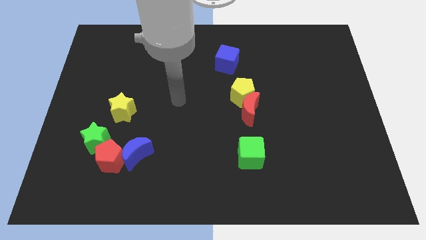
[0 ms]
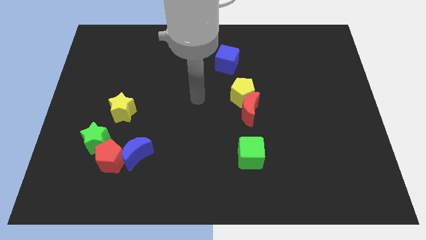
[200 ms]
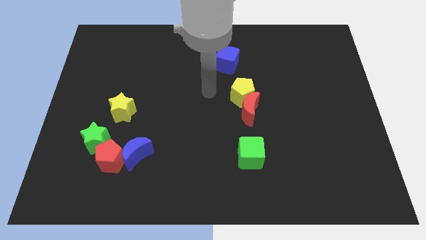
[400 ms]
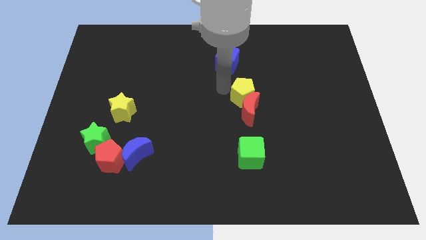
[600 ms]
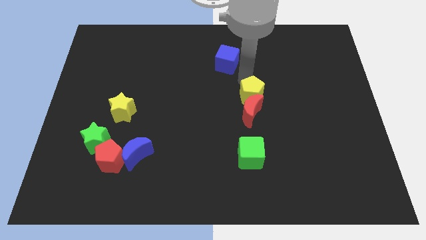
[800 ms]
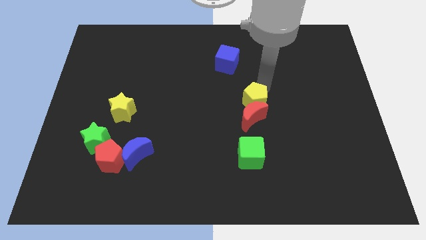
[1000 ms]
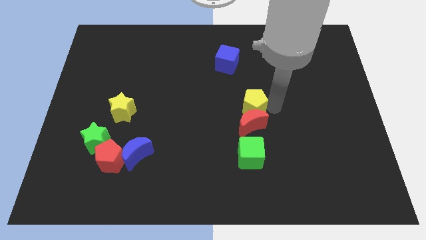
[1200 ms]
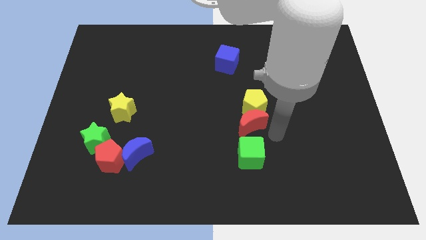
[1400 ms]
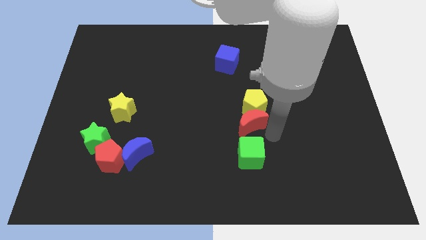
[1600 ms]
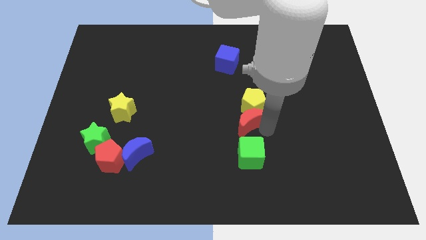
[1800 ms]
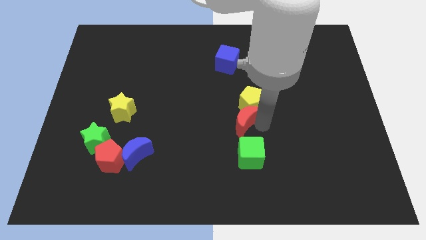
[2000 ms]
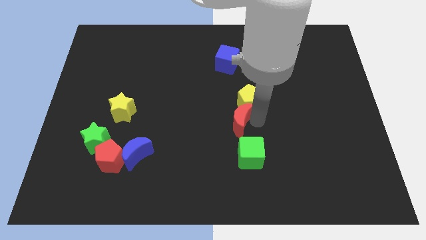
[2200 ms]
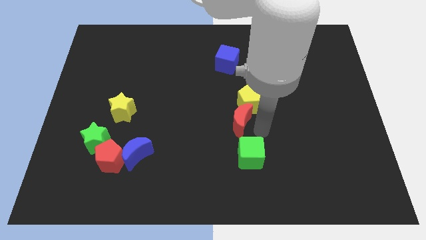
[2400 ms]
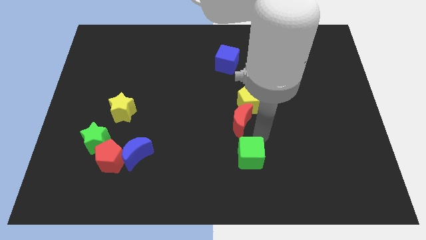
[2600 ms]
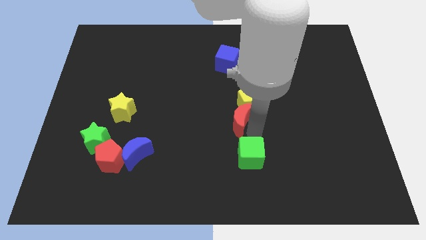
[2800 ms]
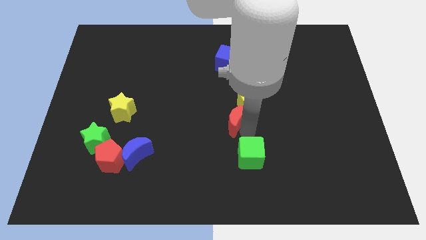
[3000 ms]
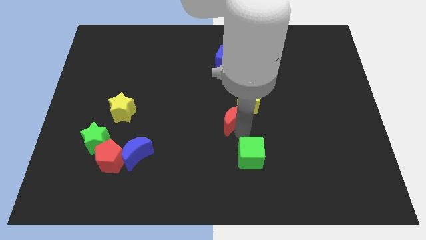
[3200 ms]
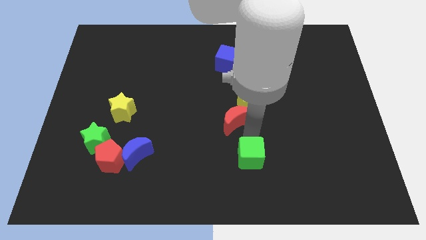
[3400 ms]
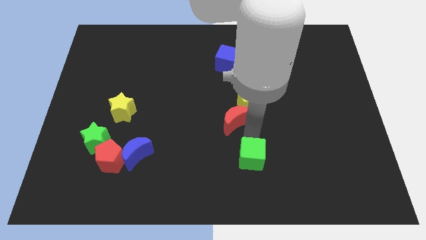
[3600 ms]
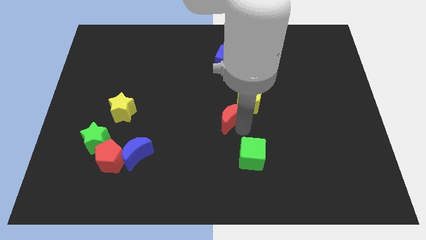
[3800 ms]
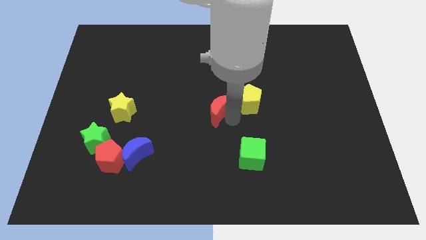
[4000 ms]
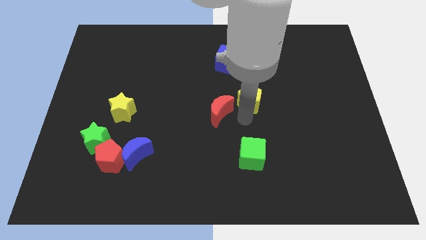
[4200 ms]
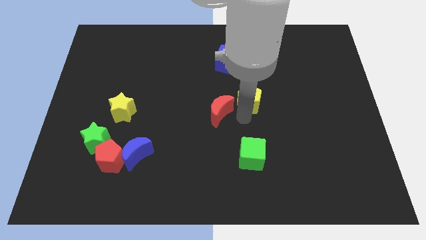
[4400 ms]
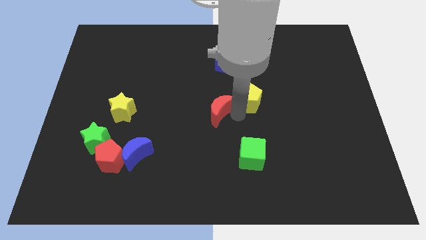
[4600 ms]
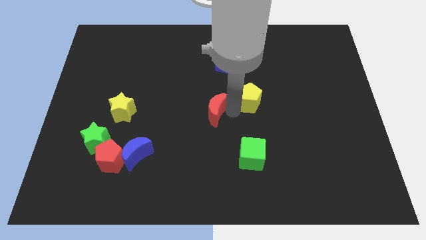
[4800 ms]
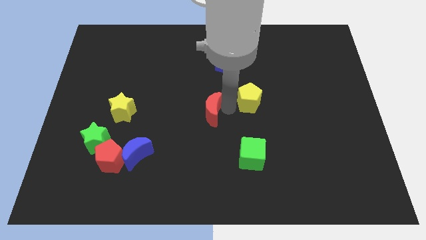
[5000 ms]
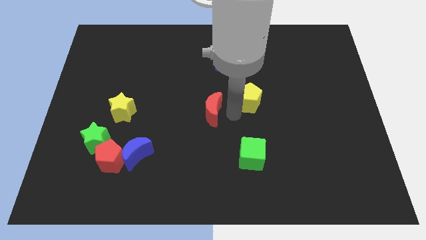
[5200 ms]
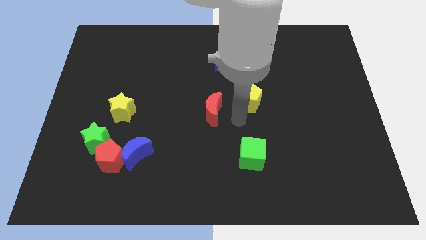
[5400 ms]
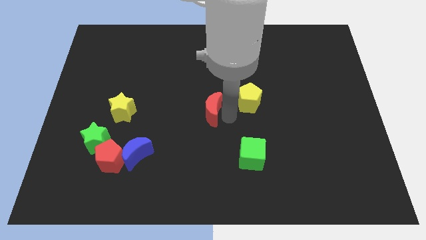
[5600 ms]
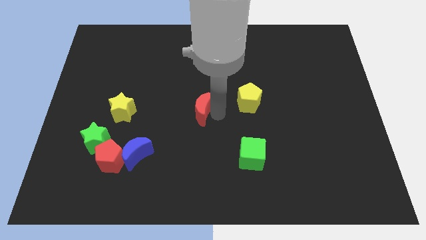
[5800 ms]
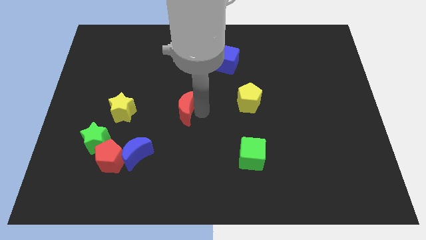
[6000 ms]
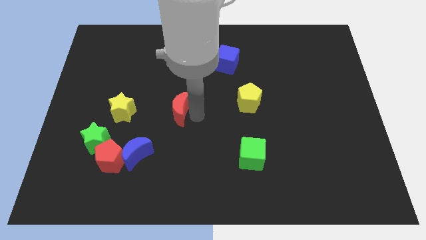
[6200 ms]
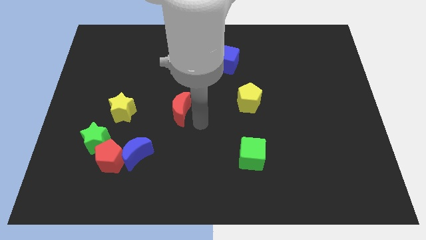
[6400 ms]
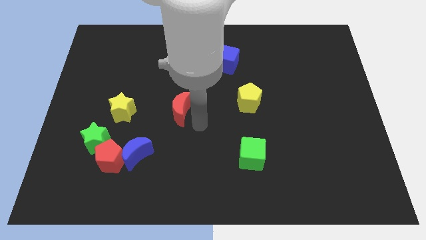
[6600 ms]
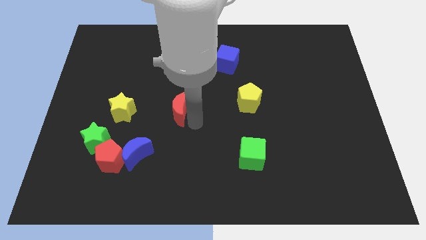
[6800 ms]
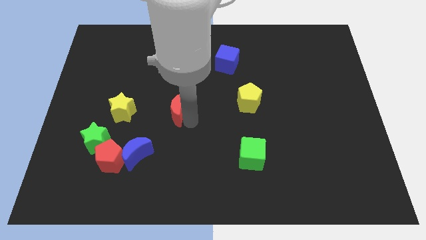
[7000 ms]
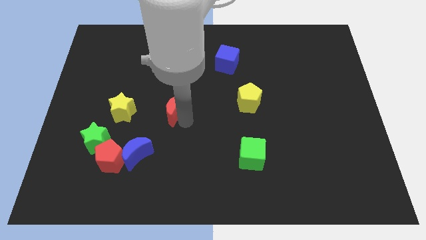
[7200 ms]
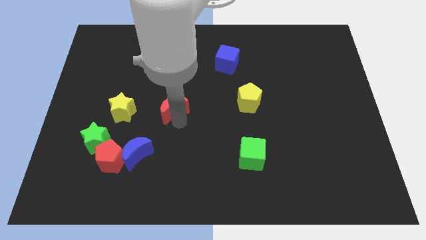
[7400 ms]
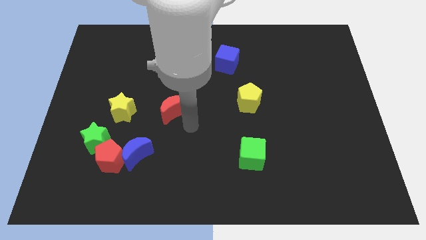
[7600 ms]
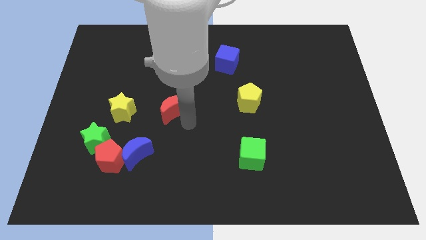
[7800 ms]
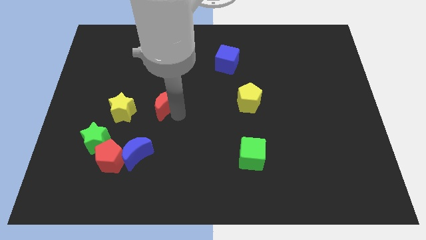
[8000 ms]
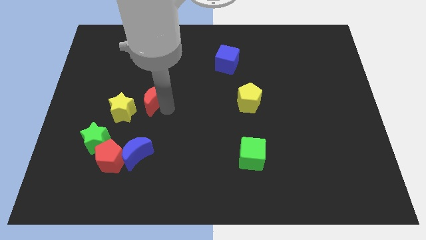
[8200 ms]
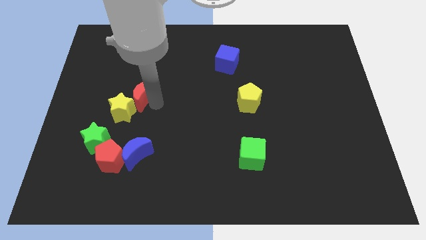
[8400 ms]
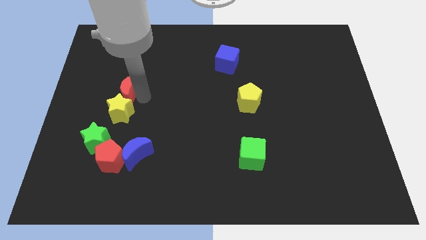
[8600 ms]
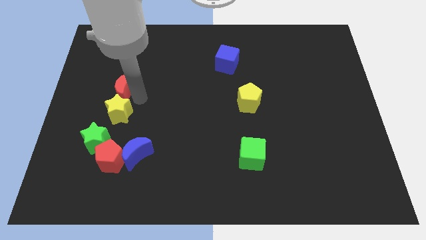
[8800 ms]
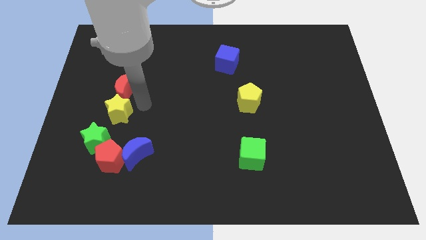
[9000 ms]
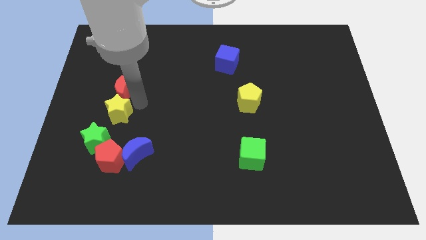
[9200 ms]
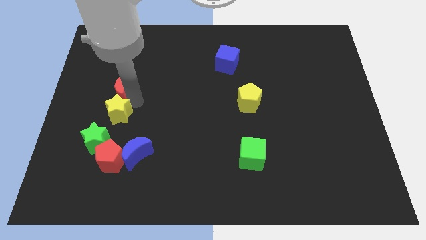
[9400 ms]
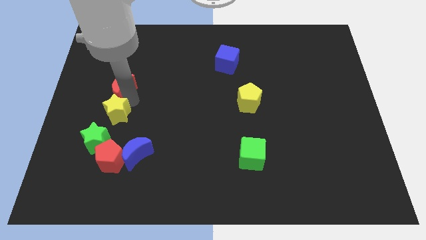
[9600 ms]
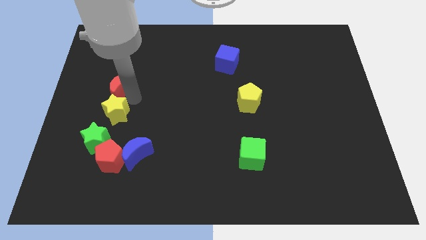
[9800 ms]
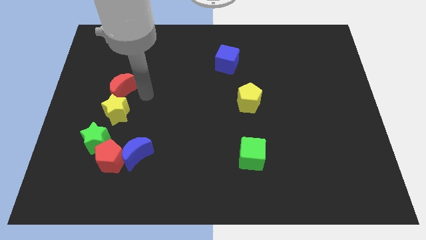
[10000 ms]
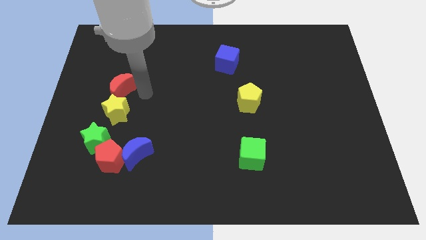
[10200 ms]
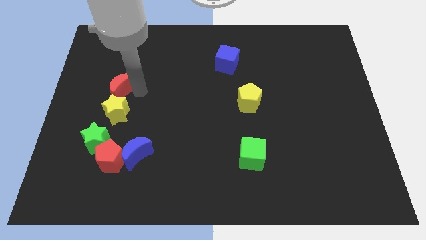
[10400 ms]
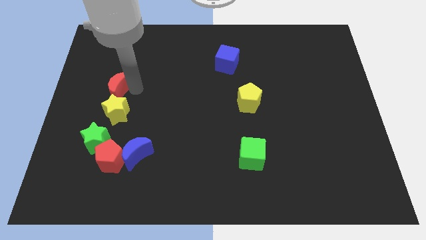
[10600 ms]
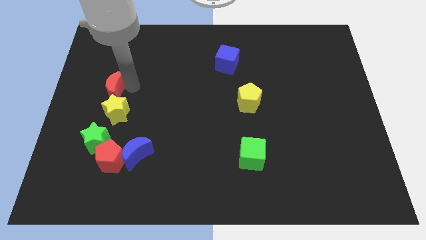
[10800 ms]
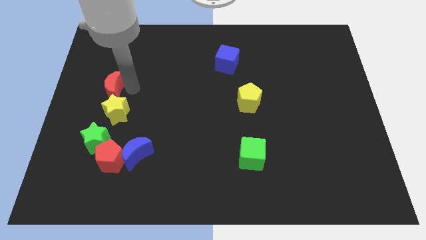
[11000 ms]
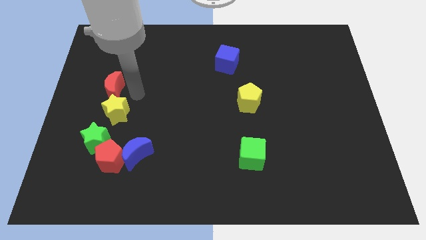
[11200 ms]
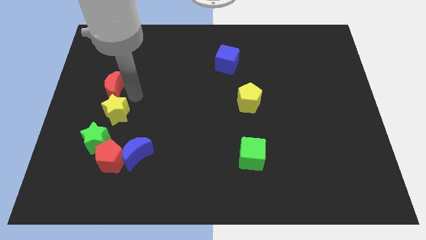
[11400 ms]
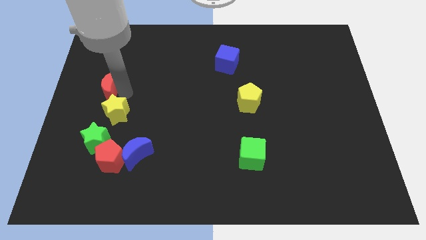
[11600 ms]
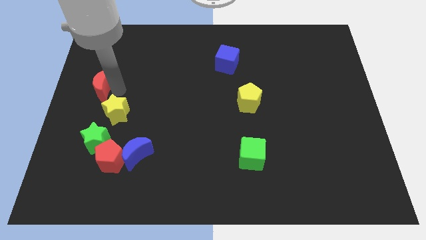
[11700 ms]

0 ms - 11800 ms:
slide the red moon to the left side
